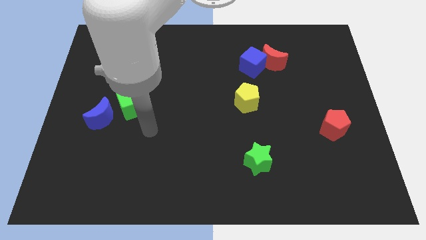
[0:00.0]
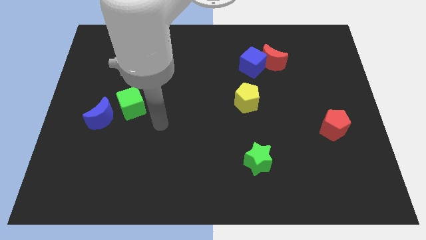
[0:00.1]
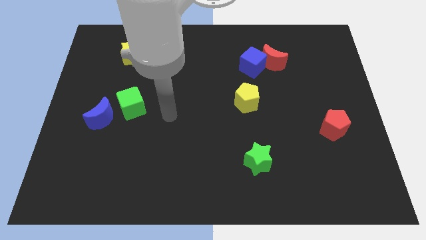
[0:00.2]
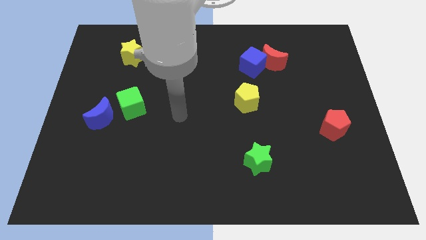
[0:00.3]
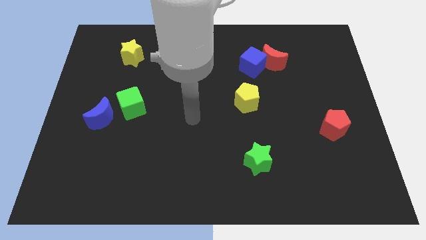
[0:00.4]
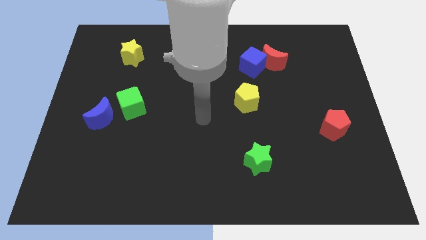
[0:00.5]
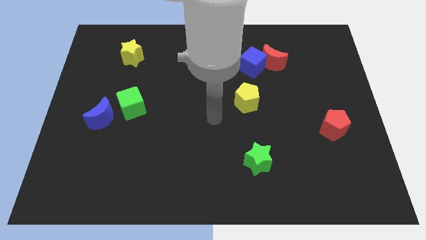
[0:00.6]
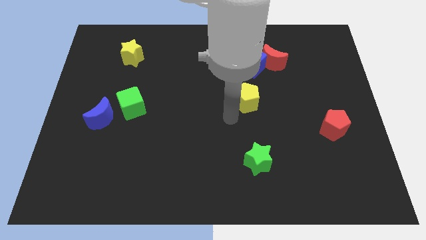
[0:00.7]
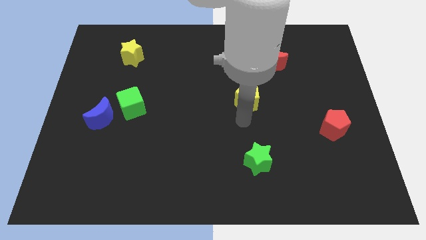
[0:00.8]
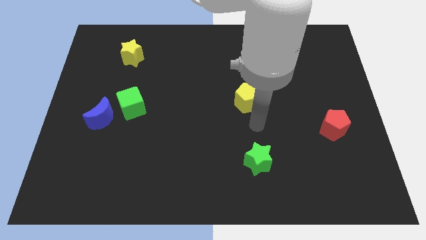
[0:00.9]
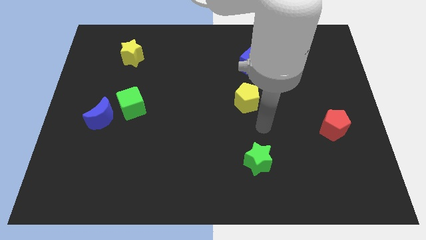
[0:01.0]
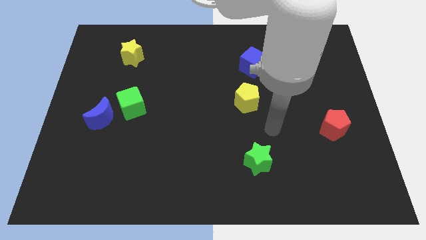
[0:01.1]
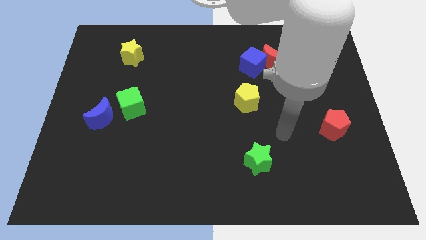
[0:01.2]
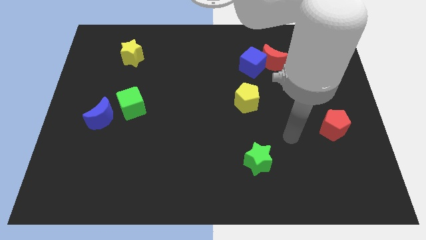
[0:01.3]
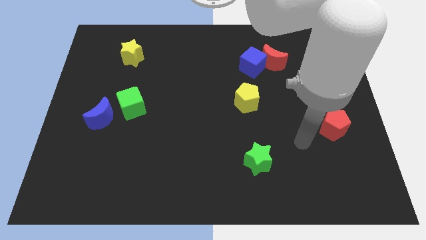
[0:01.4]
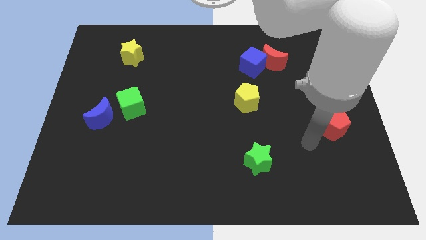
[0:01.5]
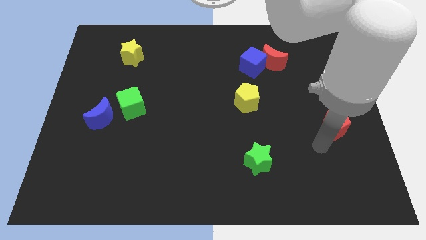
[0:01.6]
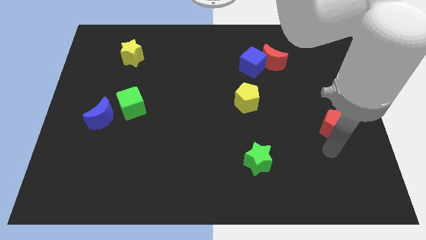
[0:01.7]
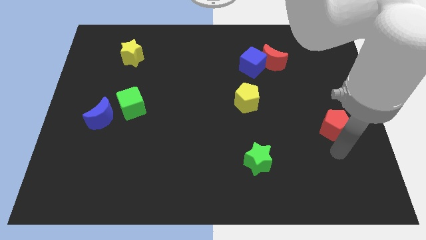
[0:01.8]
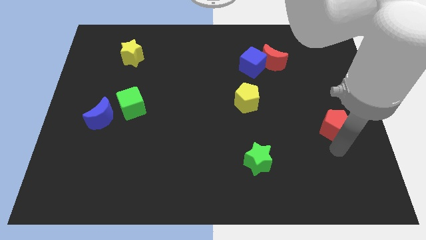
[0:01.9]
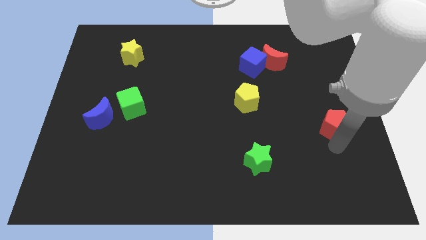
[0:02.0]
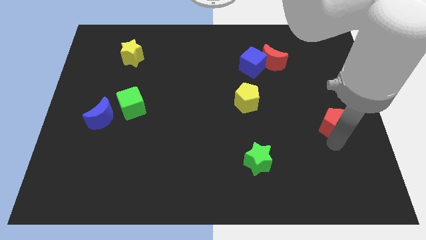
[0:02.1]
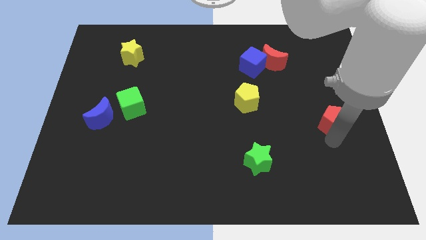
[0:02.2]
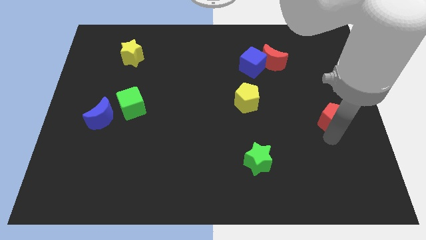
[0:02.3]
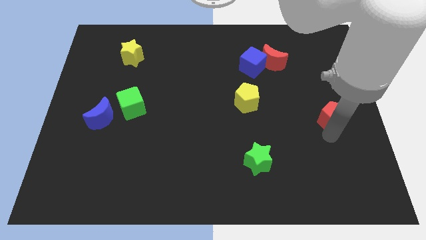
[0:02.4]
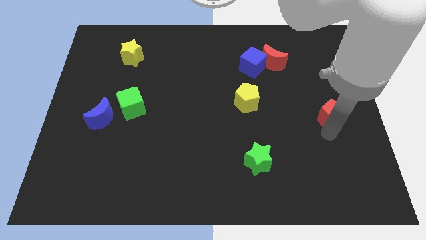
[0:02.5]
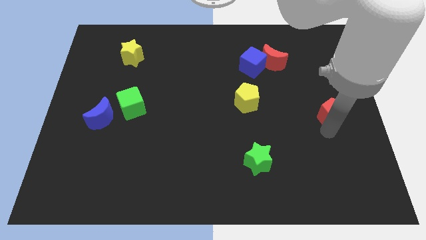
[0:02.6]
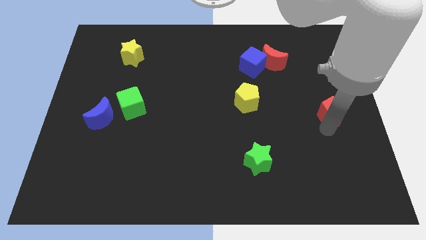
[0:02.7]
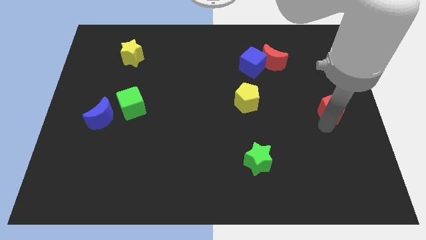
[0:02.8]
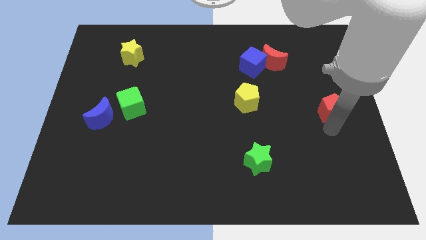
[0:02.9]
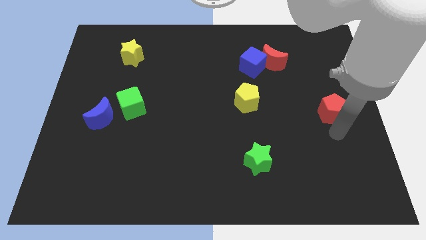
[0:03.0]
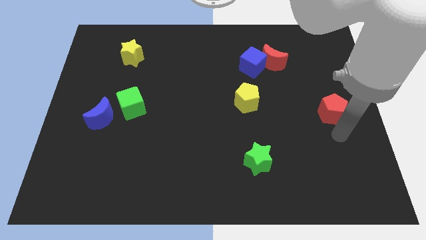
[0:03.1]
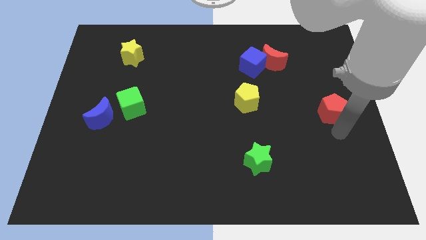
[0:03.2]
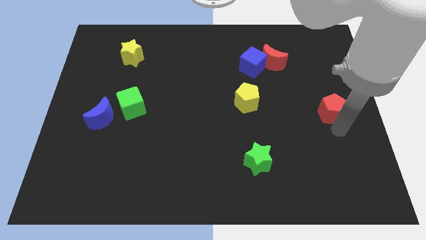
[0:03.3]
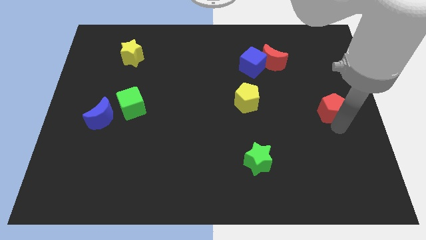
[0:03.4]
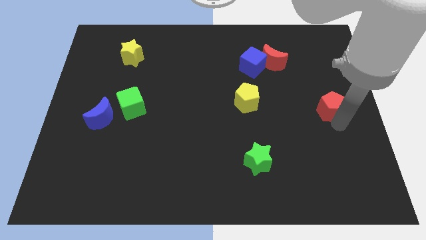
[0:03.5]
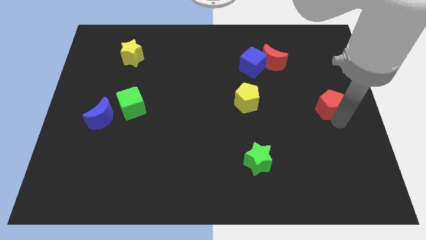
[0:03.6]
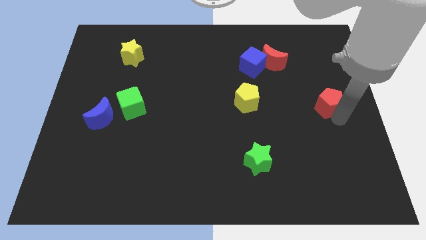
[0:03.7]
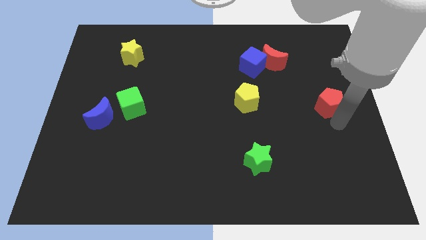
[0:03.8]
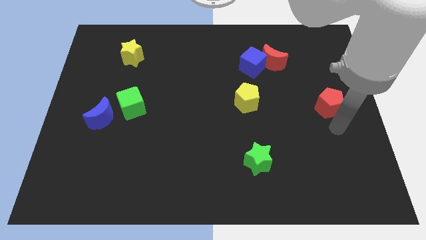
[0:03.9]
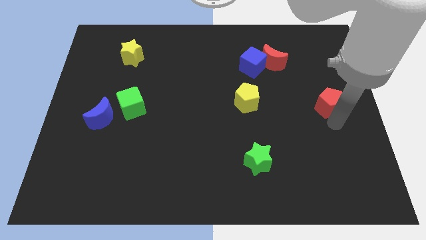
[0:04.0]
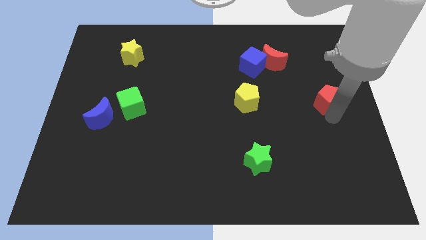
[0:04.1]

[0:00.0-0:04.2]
move the red pentagon a little upwards

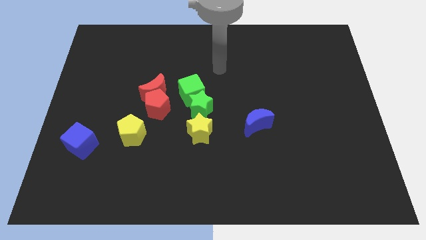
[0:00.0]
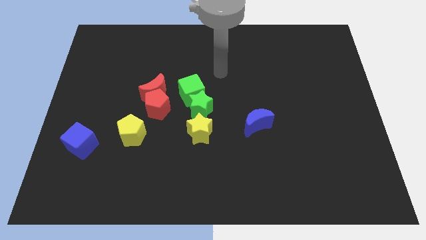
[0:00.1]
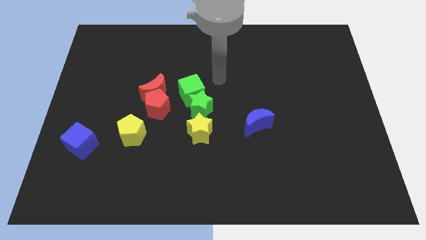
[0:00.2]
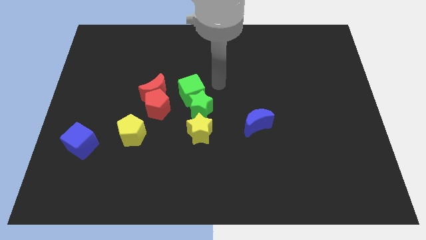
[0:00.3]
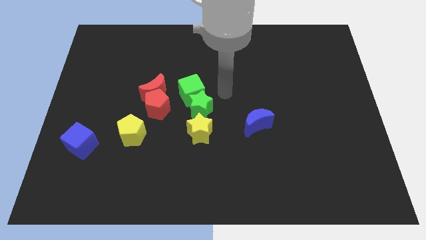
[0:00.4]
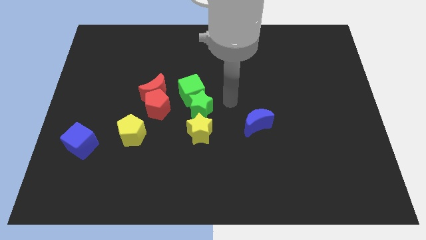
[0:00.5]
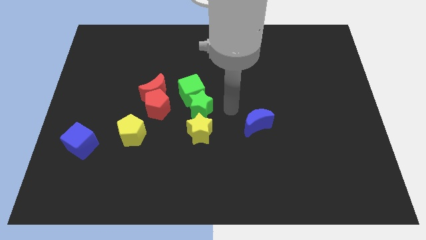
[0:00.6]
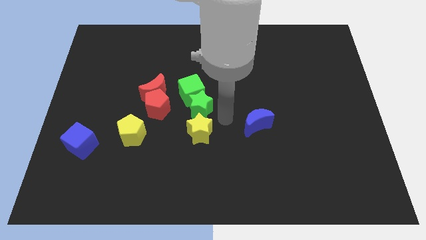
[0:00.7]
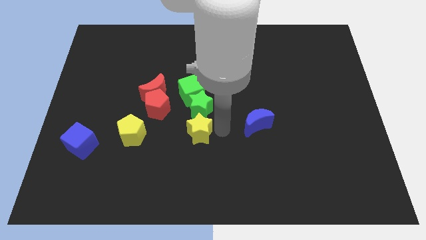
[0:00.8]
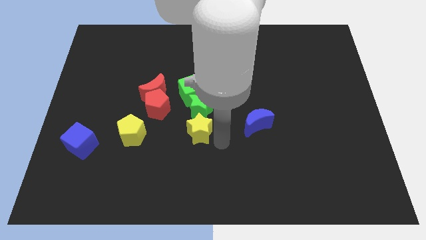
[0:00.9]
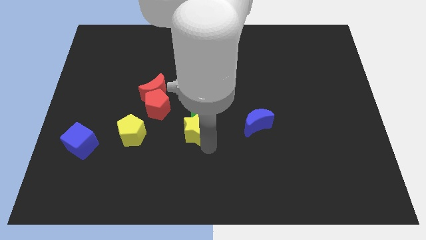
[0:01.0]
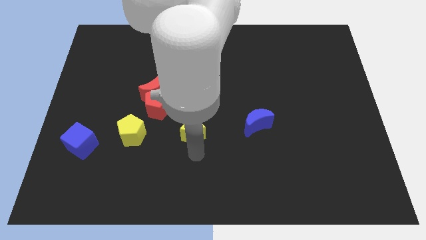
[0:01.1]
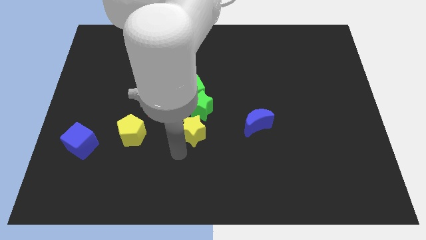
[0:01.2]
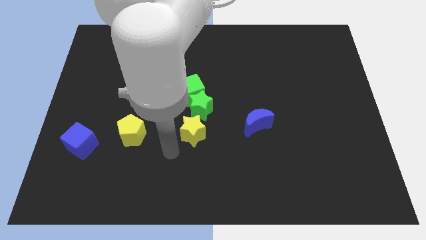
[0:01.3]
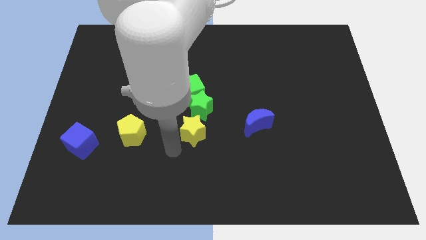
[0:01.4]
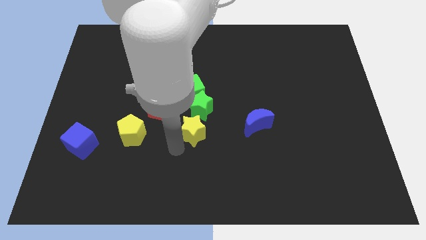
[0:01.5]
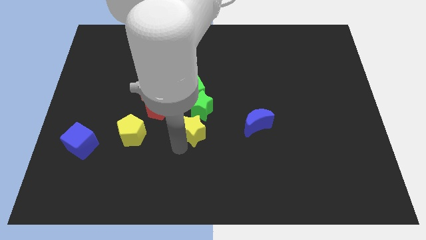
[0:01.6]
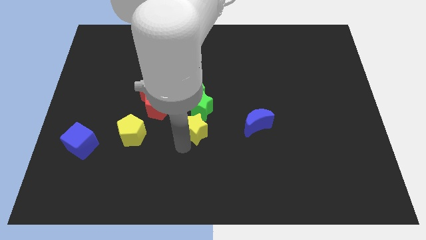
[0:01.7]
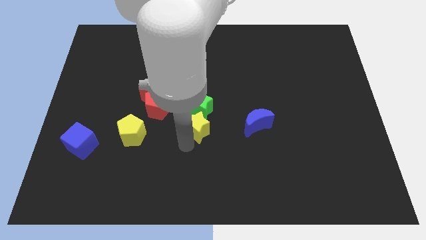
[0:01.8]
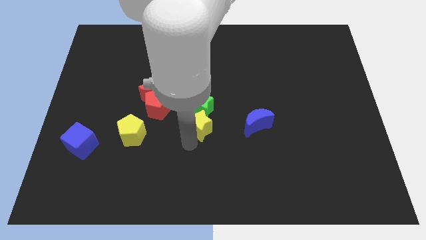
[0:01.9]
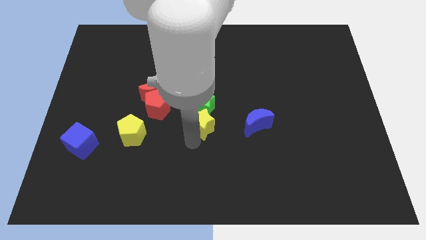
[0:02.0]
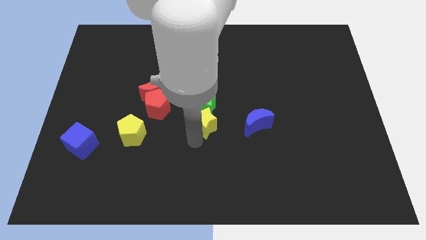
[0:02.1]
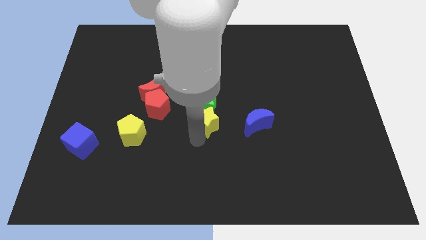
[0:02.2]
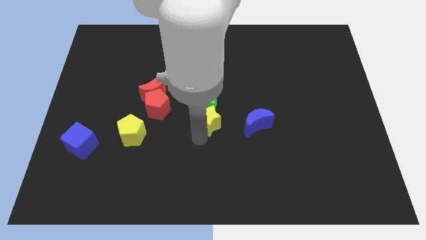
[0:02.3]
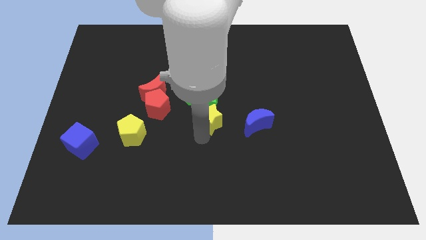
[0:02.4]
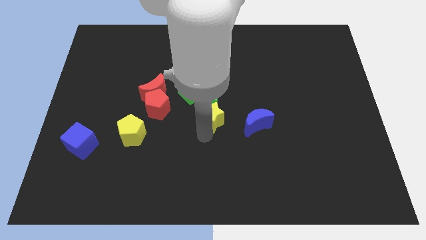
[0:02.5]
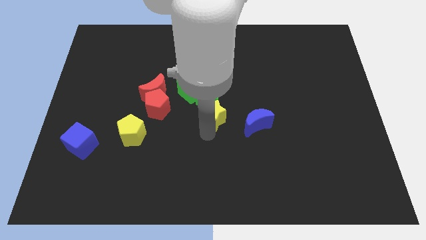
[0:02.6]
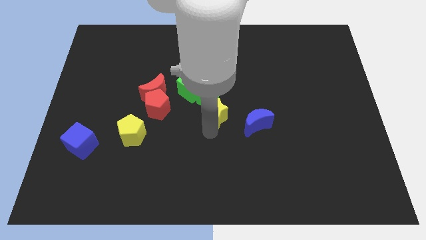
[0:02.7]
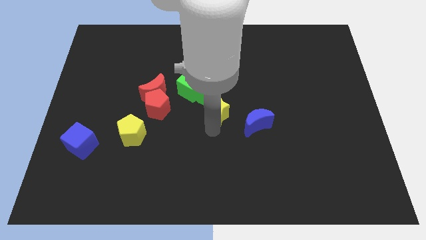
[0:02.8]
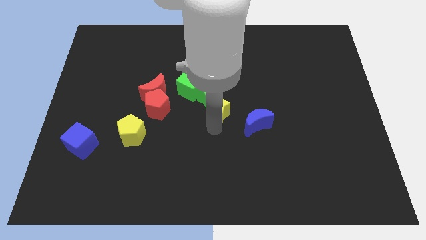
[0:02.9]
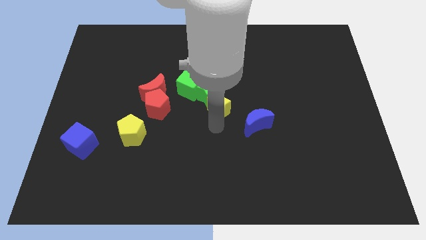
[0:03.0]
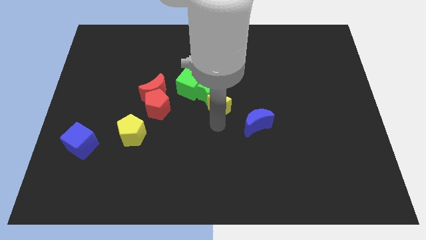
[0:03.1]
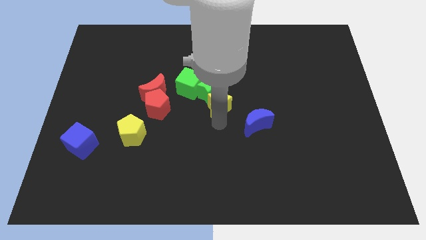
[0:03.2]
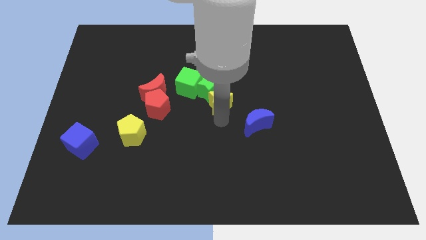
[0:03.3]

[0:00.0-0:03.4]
push the yellow star a bit upwards
